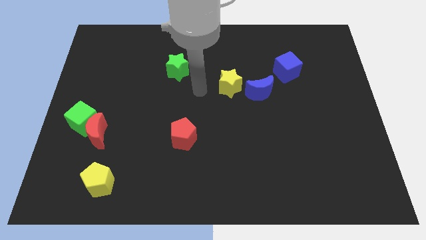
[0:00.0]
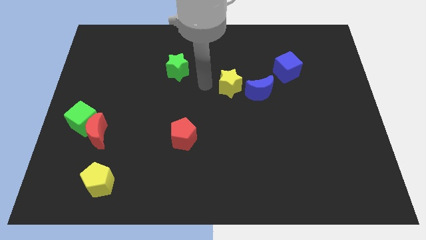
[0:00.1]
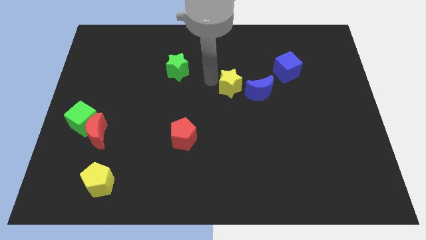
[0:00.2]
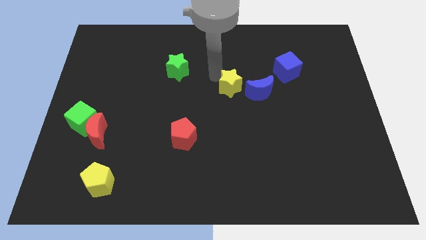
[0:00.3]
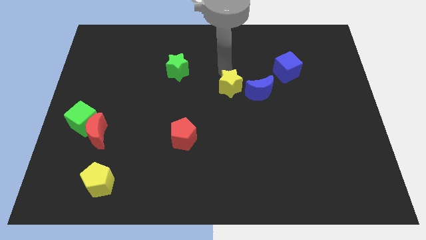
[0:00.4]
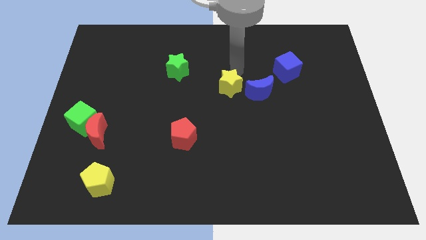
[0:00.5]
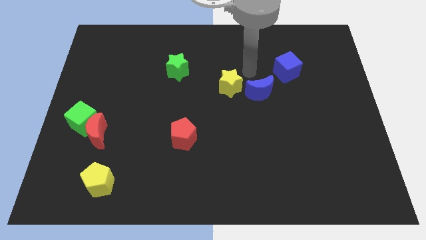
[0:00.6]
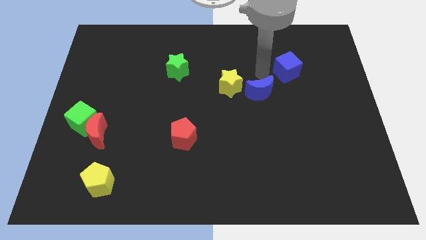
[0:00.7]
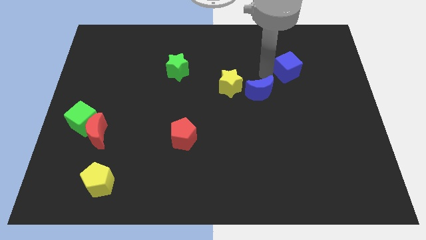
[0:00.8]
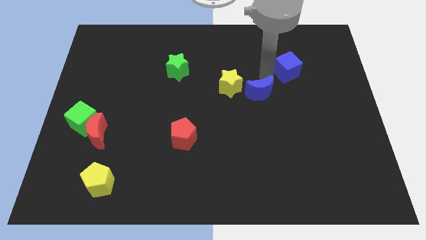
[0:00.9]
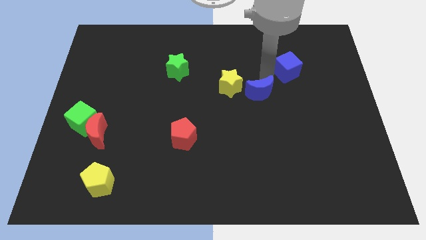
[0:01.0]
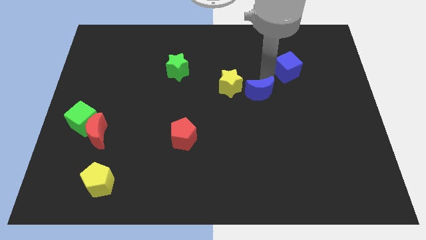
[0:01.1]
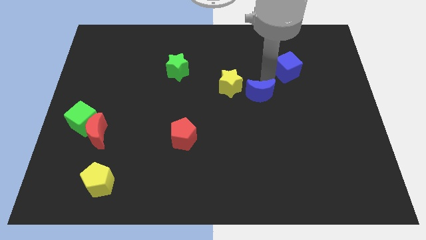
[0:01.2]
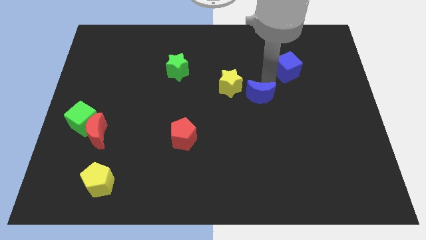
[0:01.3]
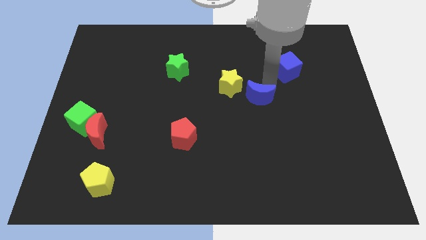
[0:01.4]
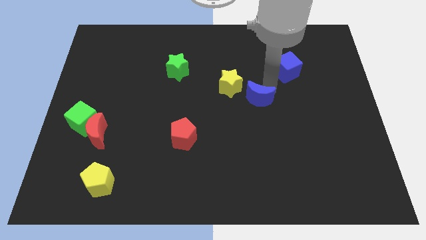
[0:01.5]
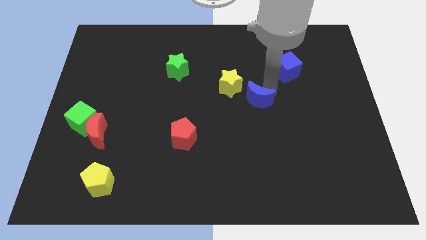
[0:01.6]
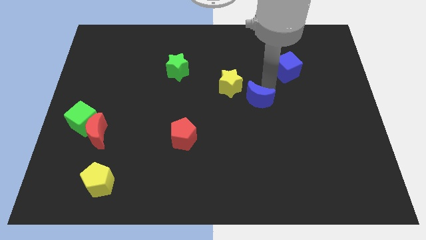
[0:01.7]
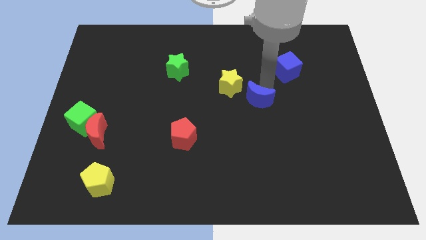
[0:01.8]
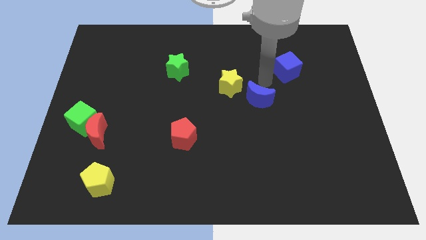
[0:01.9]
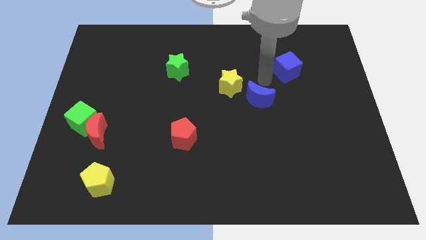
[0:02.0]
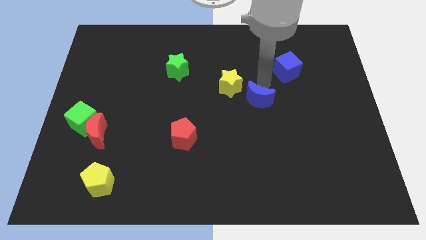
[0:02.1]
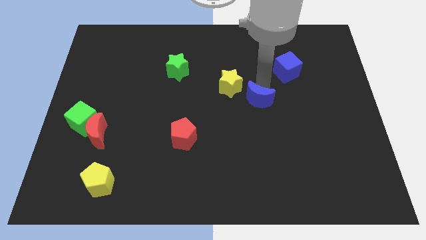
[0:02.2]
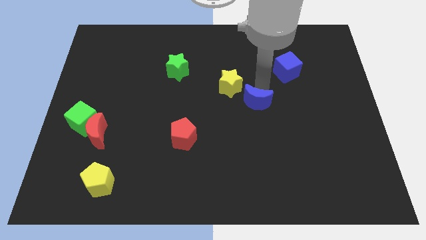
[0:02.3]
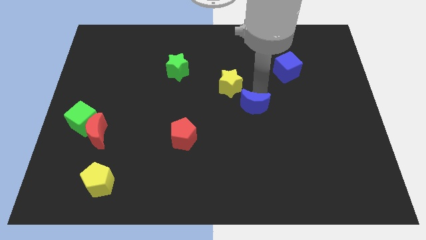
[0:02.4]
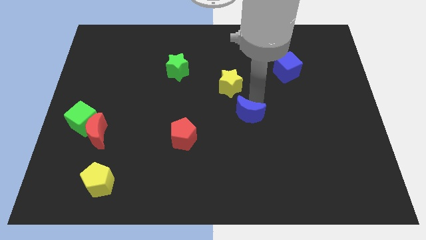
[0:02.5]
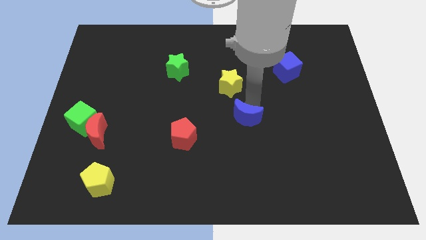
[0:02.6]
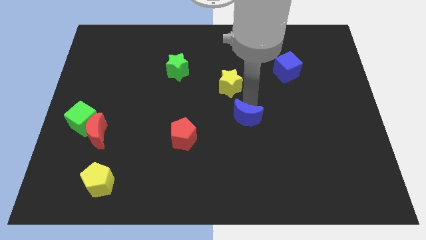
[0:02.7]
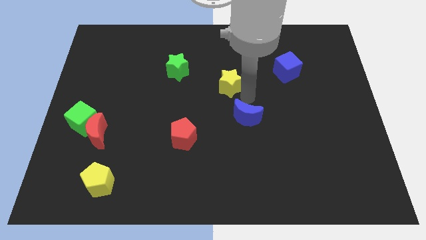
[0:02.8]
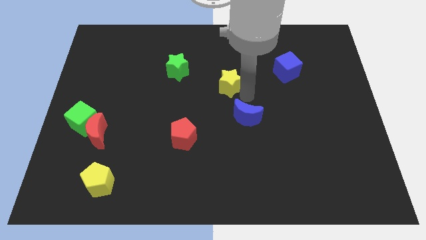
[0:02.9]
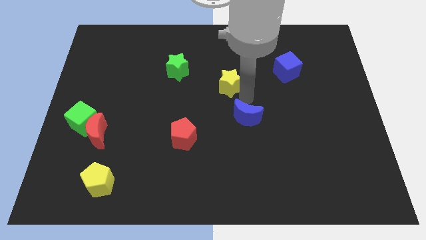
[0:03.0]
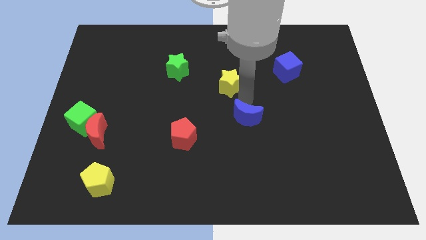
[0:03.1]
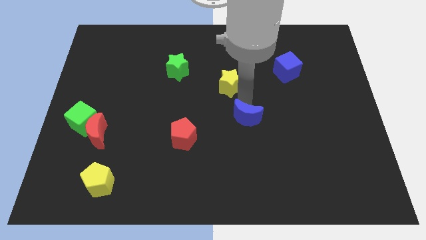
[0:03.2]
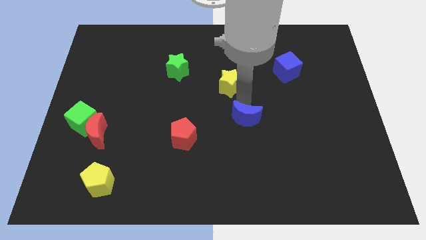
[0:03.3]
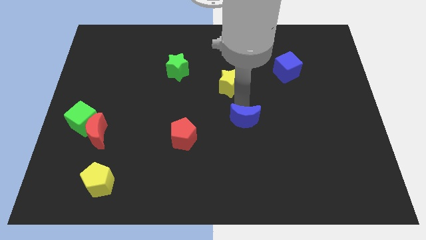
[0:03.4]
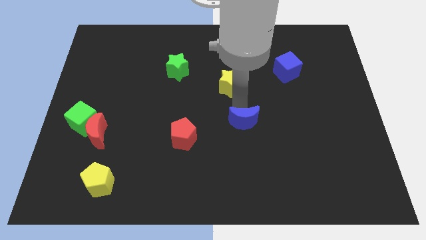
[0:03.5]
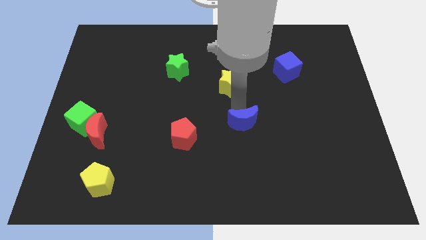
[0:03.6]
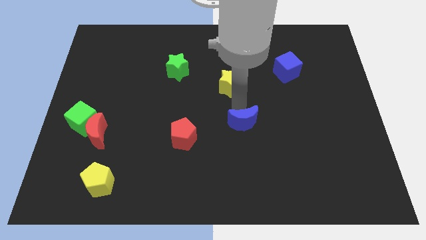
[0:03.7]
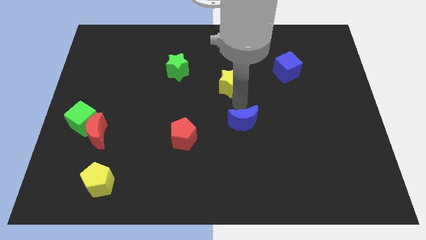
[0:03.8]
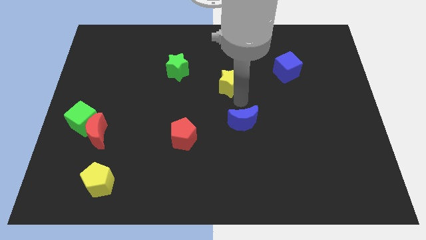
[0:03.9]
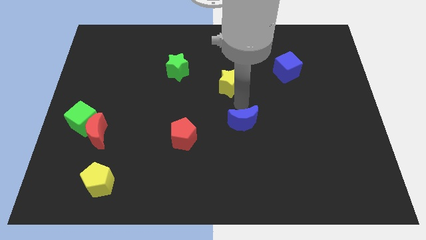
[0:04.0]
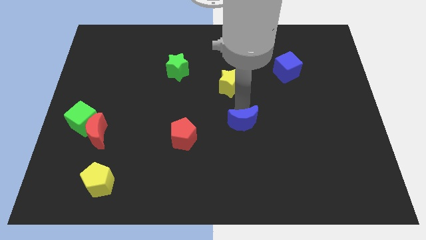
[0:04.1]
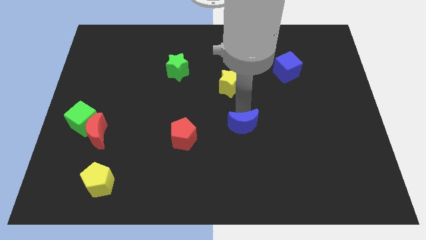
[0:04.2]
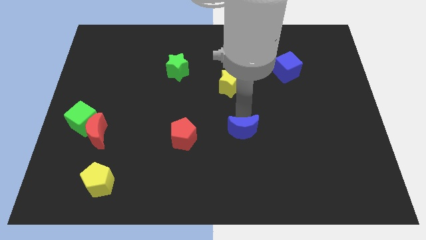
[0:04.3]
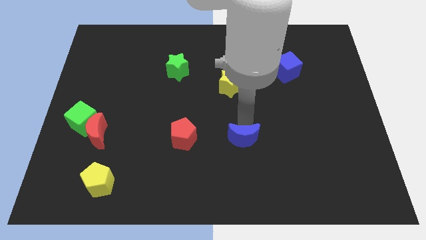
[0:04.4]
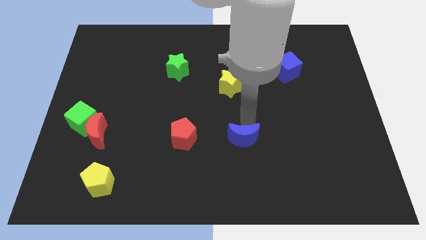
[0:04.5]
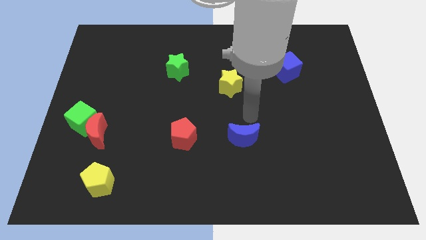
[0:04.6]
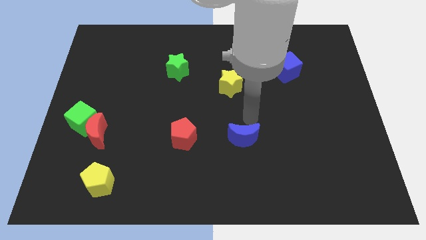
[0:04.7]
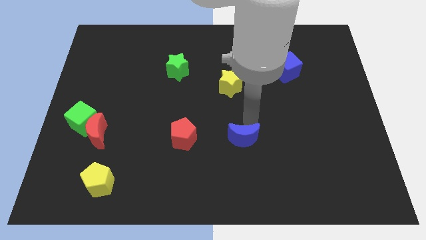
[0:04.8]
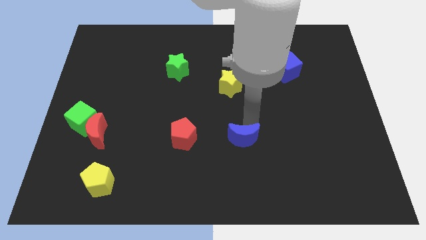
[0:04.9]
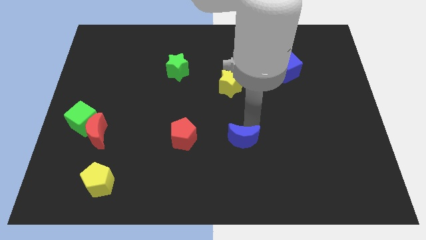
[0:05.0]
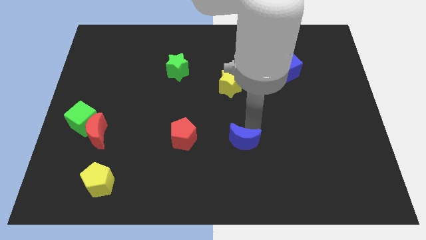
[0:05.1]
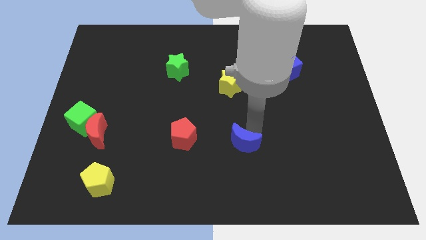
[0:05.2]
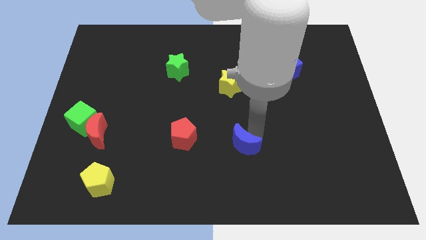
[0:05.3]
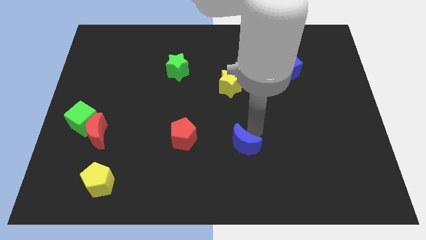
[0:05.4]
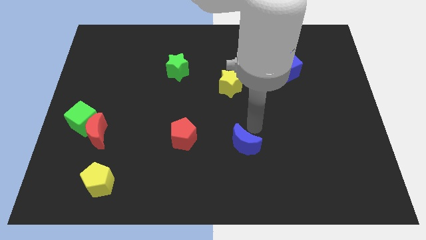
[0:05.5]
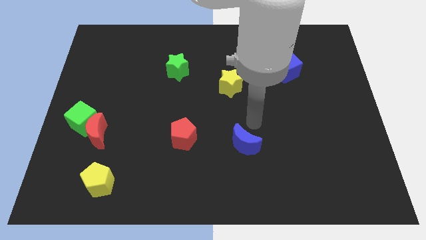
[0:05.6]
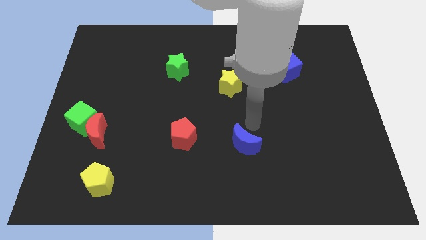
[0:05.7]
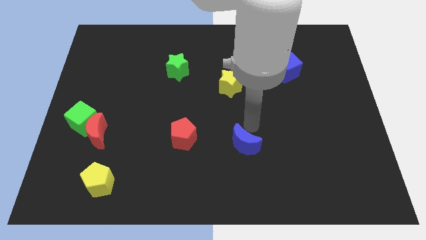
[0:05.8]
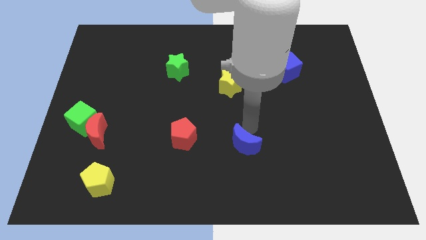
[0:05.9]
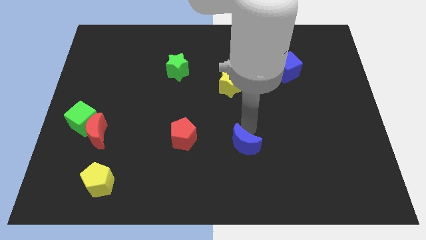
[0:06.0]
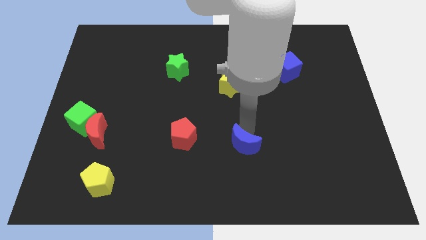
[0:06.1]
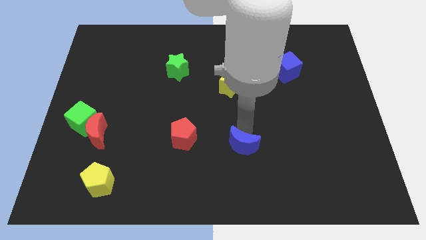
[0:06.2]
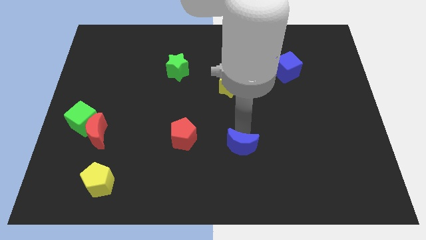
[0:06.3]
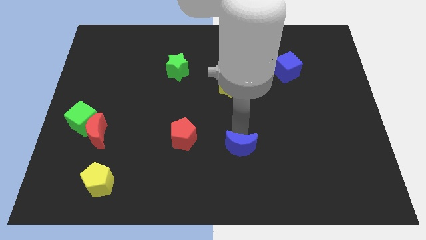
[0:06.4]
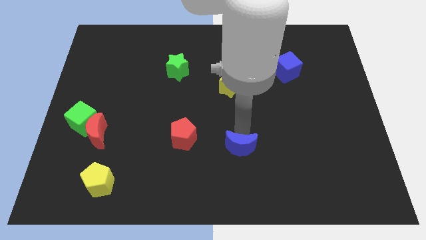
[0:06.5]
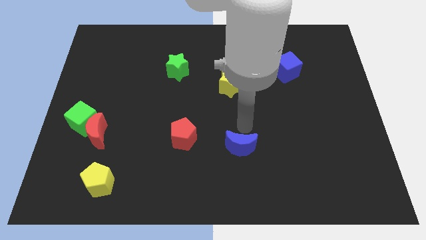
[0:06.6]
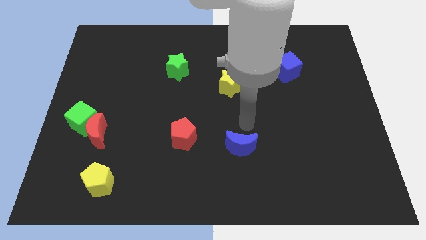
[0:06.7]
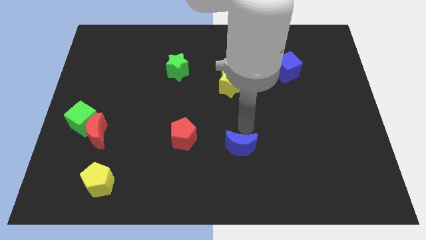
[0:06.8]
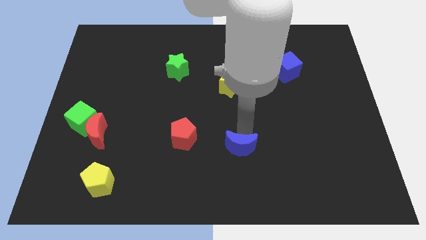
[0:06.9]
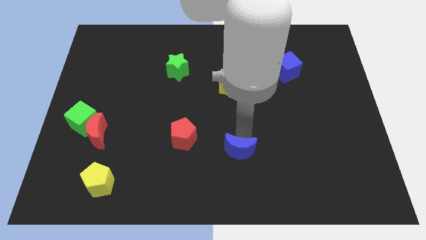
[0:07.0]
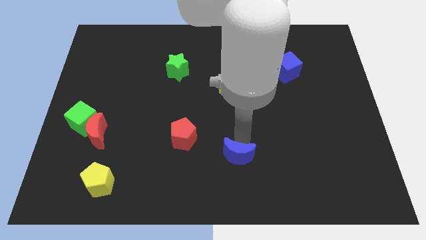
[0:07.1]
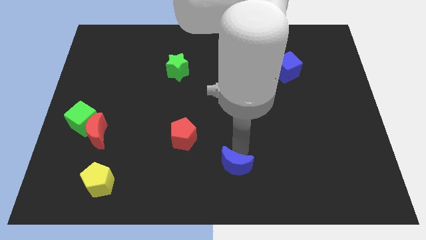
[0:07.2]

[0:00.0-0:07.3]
put the blue moon to the bottom side
